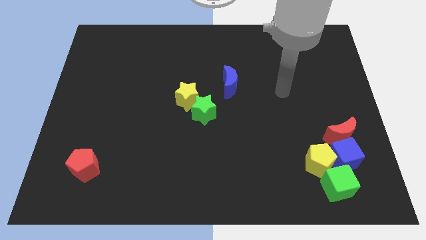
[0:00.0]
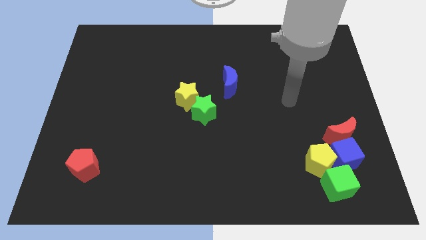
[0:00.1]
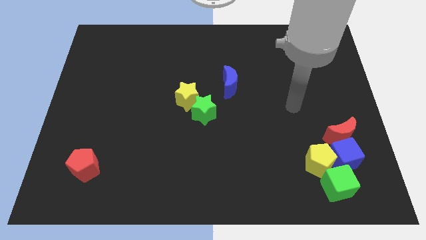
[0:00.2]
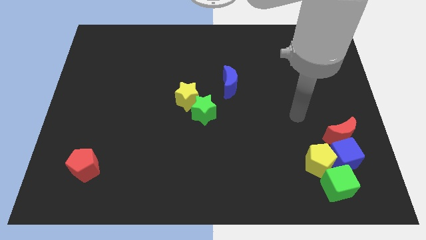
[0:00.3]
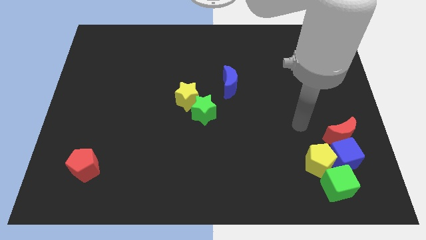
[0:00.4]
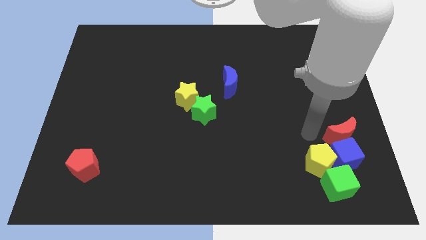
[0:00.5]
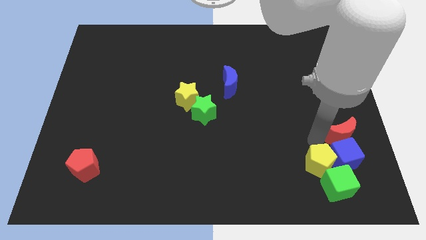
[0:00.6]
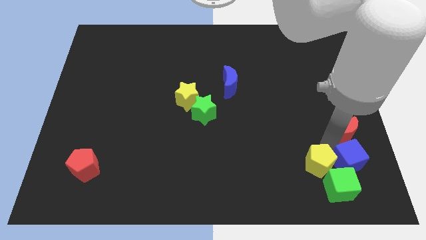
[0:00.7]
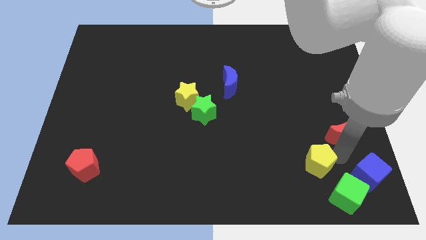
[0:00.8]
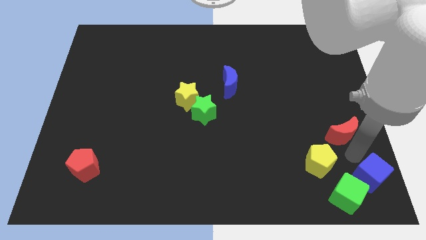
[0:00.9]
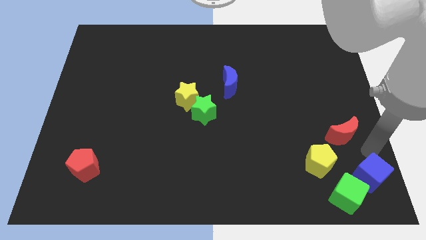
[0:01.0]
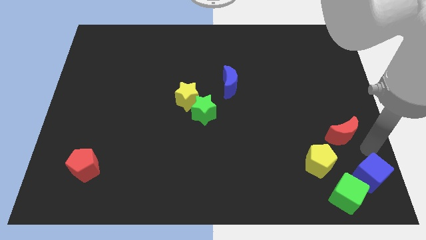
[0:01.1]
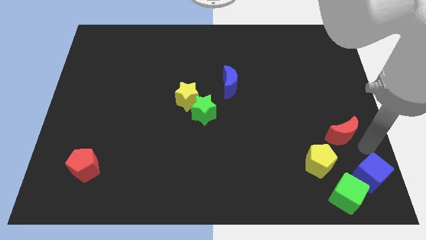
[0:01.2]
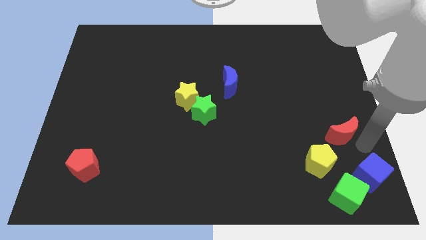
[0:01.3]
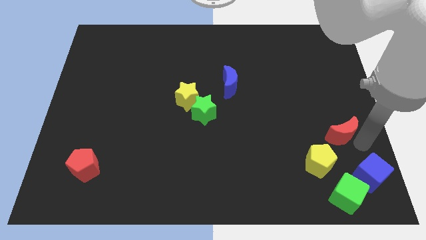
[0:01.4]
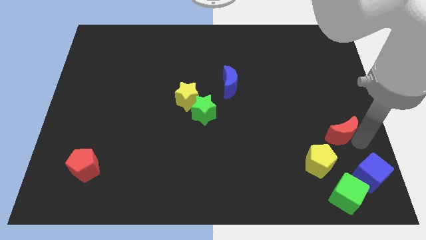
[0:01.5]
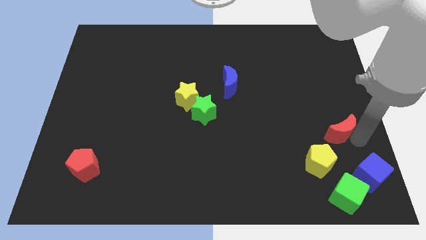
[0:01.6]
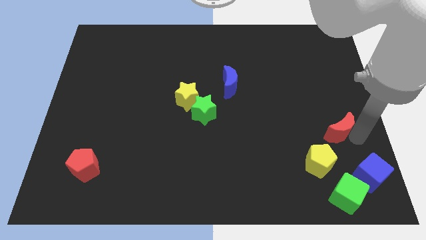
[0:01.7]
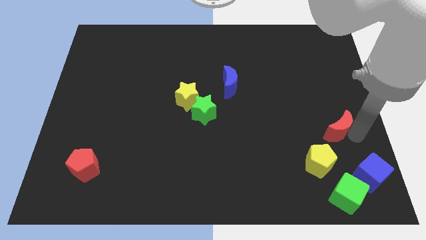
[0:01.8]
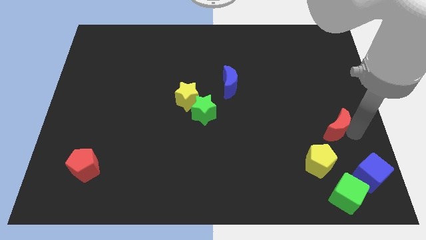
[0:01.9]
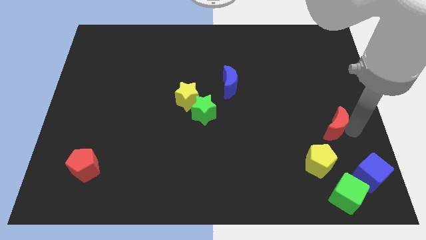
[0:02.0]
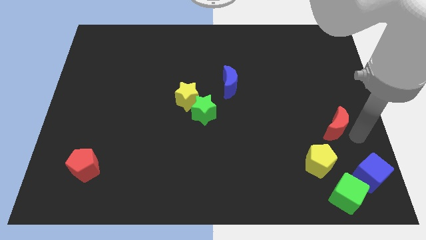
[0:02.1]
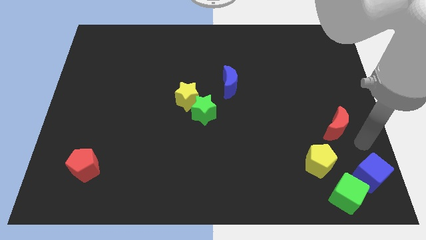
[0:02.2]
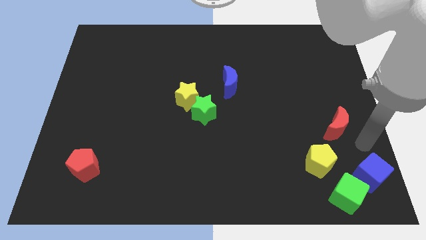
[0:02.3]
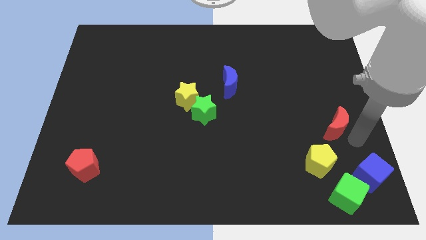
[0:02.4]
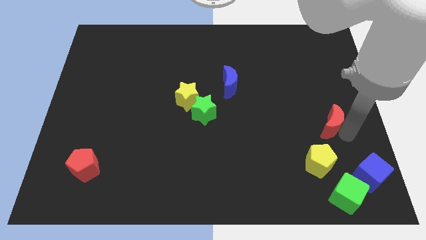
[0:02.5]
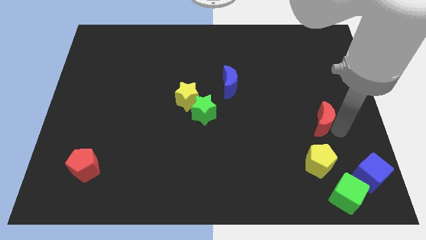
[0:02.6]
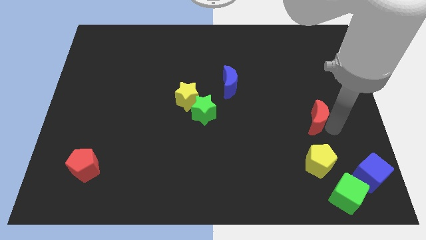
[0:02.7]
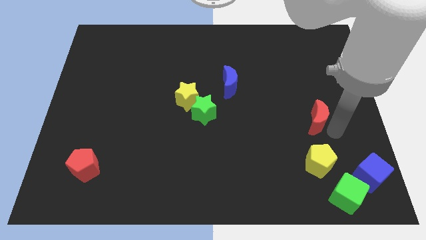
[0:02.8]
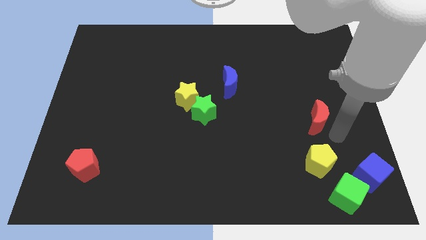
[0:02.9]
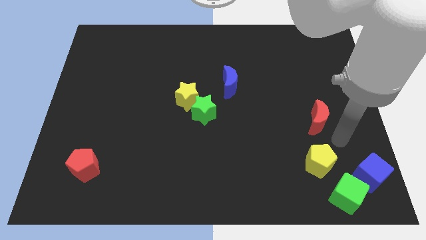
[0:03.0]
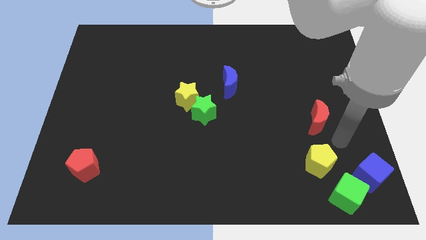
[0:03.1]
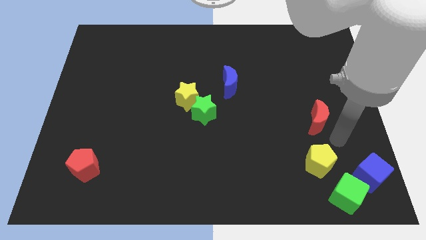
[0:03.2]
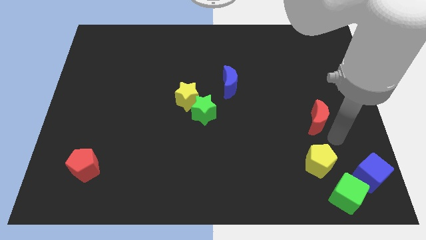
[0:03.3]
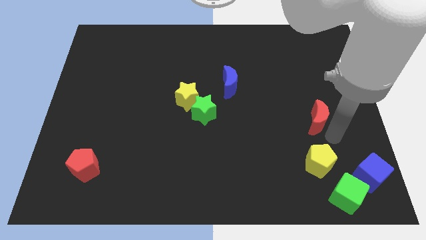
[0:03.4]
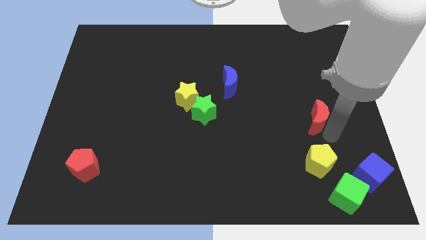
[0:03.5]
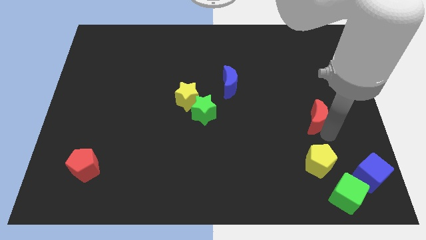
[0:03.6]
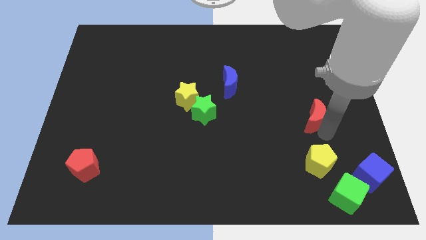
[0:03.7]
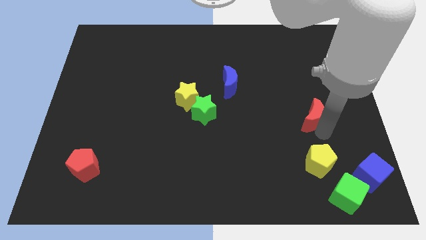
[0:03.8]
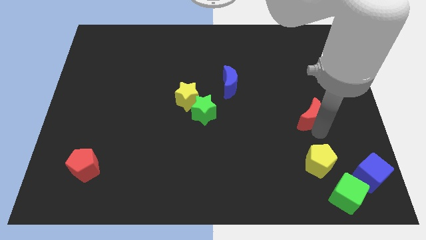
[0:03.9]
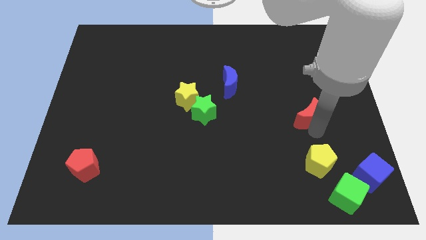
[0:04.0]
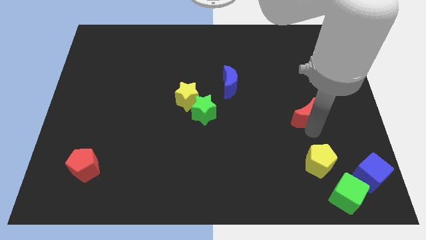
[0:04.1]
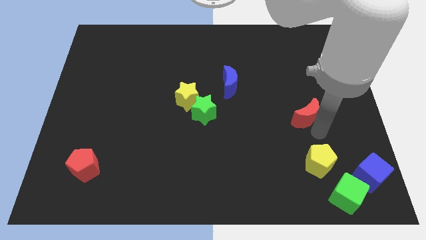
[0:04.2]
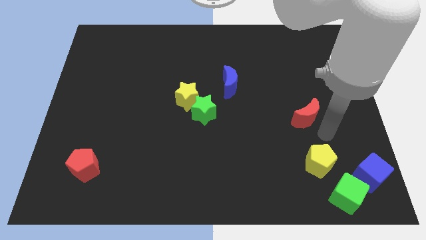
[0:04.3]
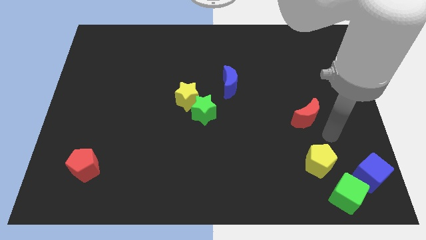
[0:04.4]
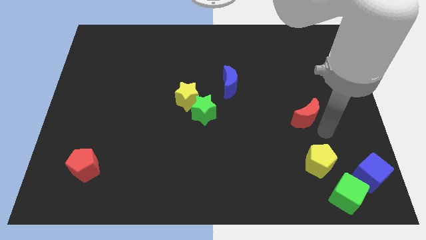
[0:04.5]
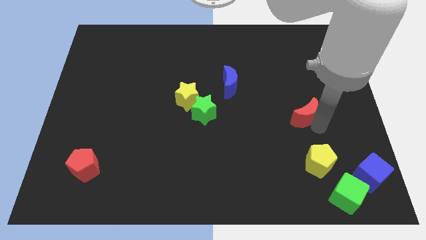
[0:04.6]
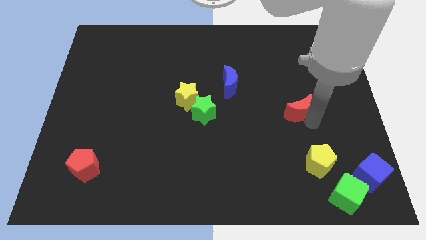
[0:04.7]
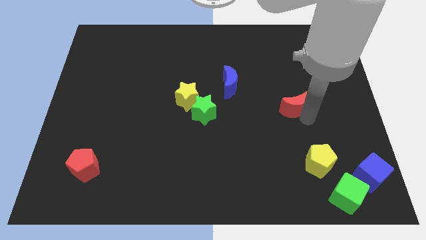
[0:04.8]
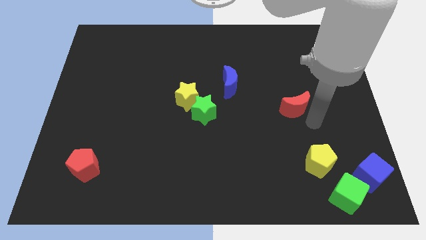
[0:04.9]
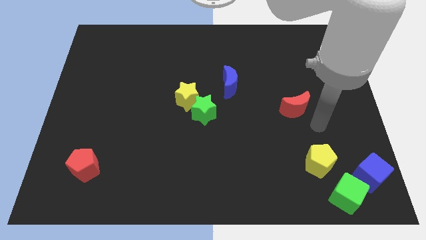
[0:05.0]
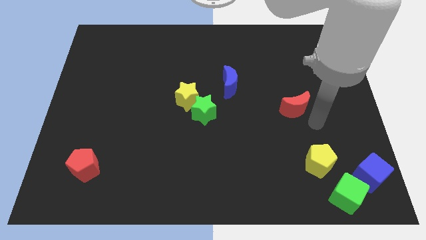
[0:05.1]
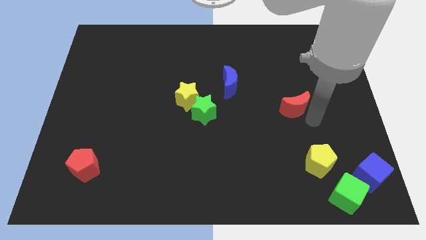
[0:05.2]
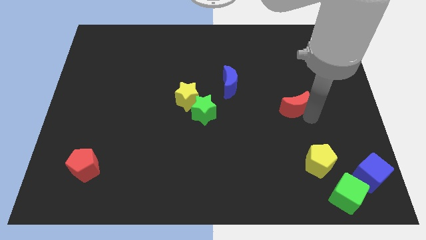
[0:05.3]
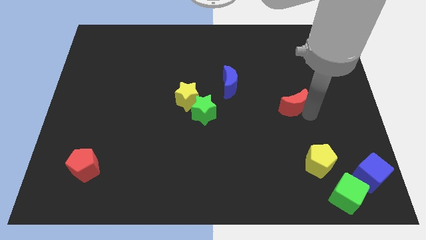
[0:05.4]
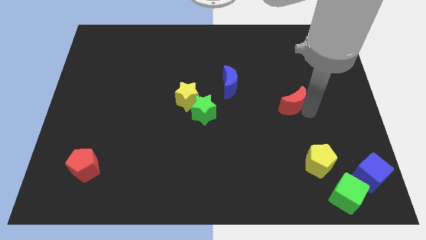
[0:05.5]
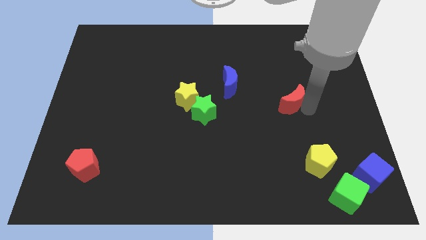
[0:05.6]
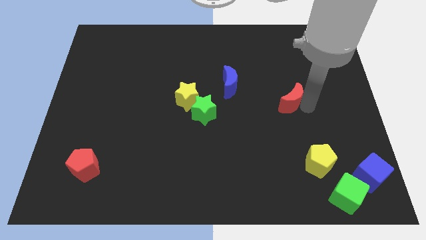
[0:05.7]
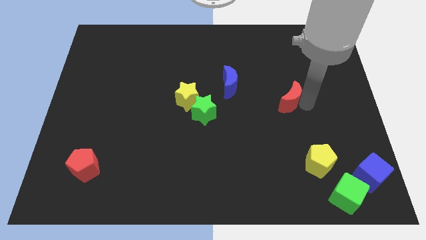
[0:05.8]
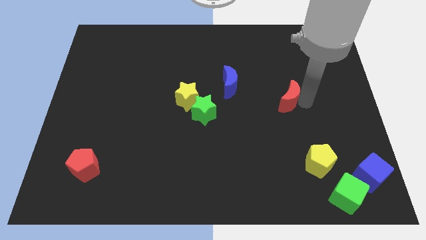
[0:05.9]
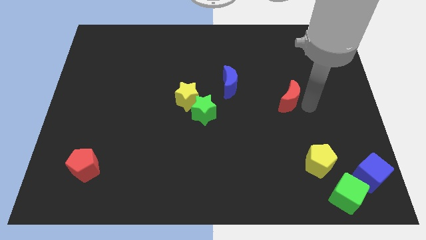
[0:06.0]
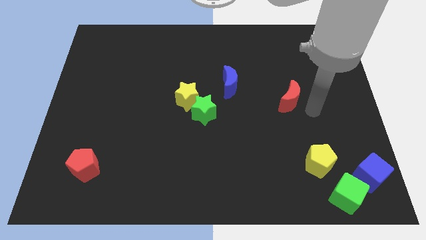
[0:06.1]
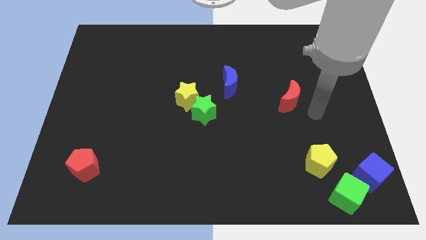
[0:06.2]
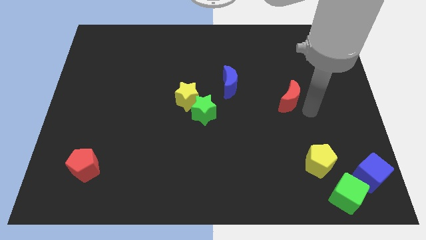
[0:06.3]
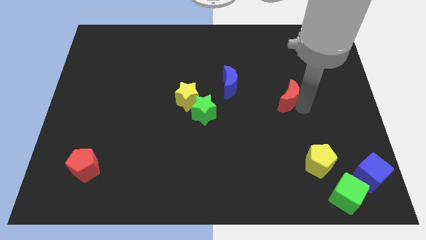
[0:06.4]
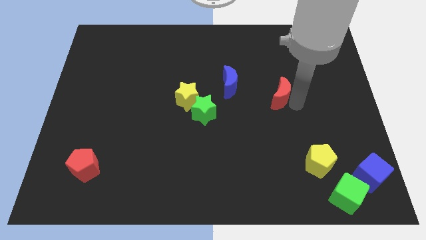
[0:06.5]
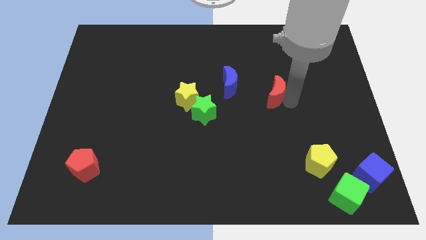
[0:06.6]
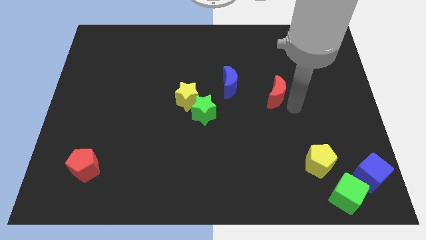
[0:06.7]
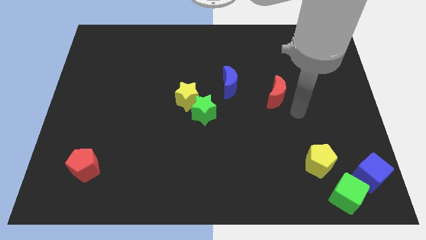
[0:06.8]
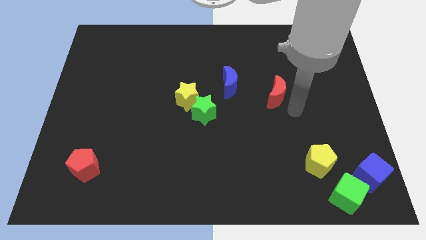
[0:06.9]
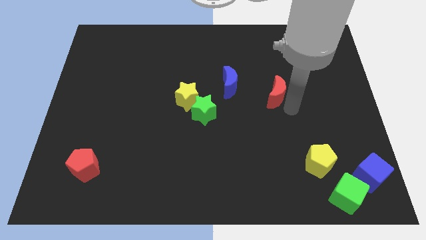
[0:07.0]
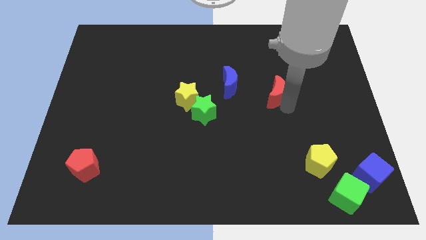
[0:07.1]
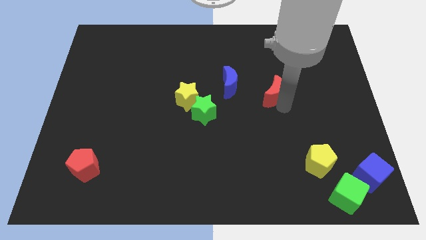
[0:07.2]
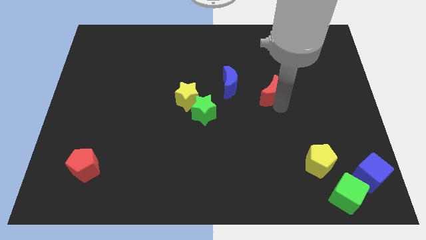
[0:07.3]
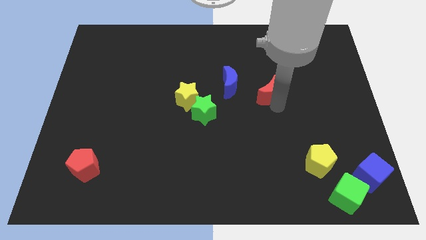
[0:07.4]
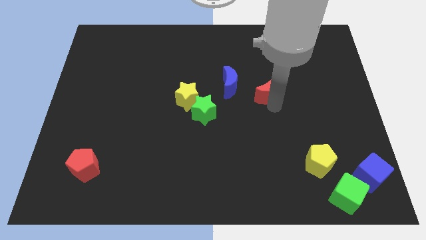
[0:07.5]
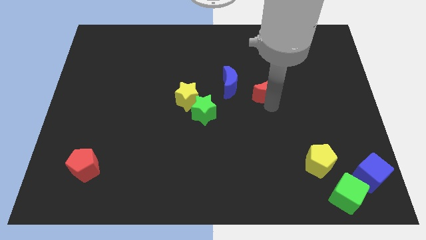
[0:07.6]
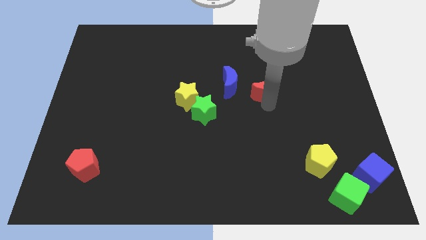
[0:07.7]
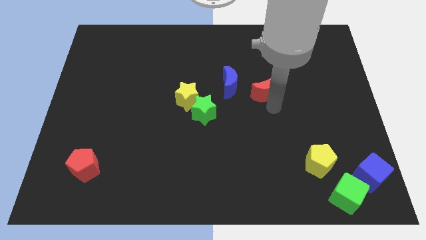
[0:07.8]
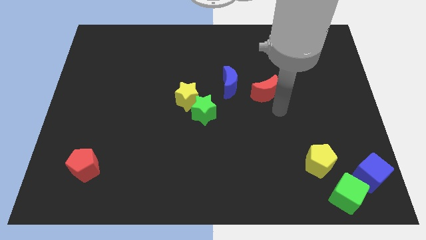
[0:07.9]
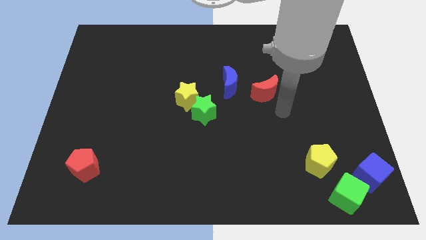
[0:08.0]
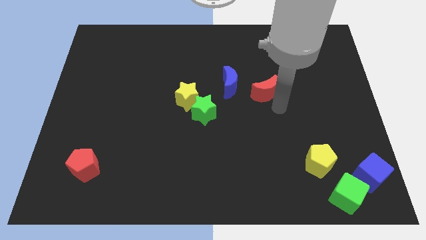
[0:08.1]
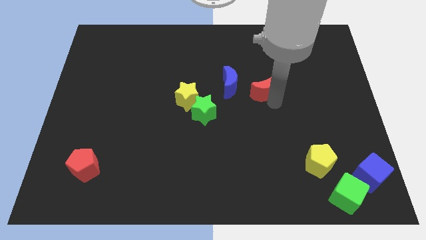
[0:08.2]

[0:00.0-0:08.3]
move the red moon up and then left
